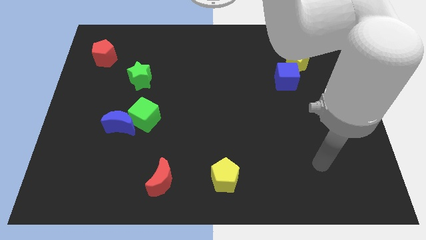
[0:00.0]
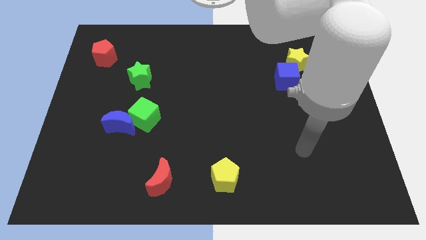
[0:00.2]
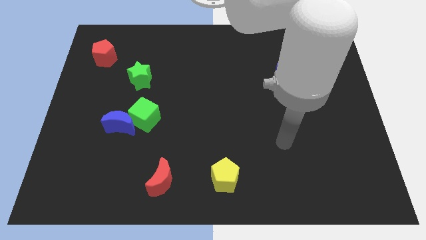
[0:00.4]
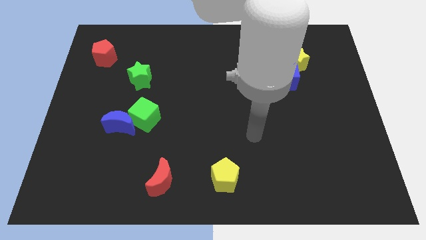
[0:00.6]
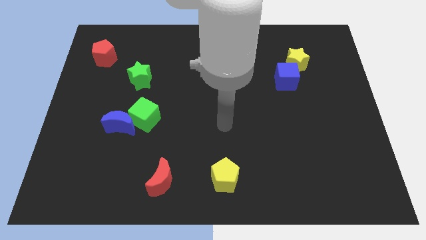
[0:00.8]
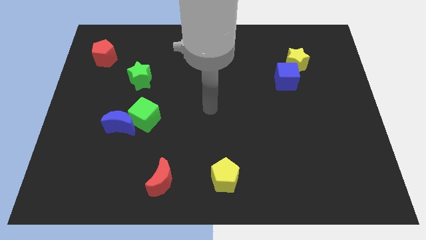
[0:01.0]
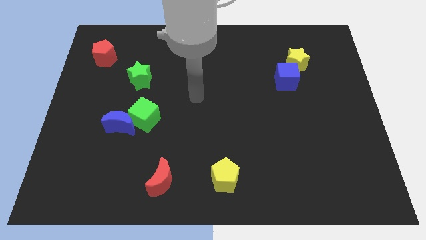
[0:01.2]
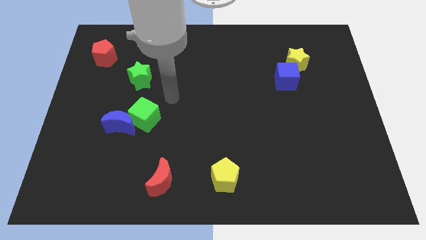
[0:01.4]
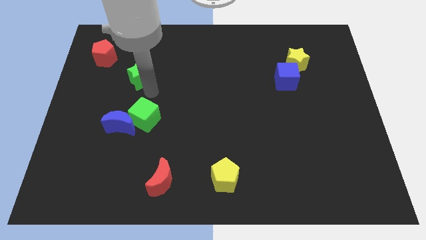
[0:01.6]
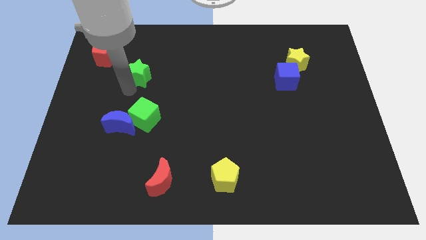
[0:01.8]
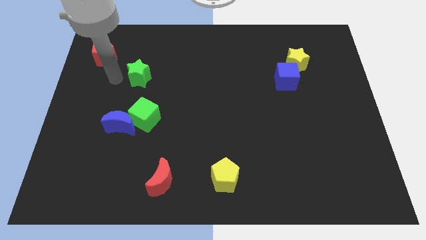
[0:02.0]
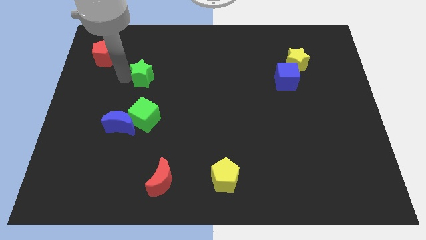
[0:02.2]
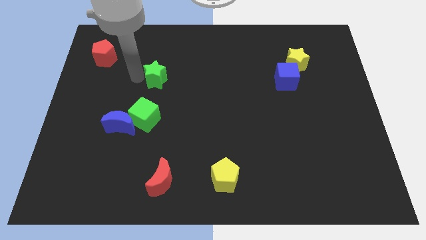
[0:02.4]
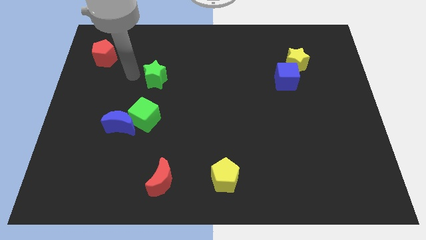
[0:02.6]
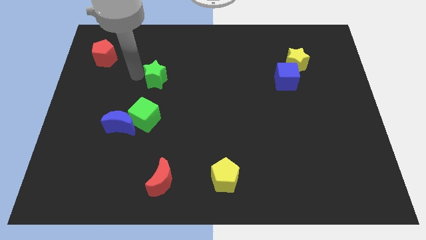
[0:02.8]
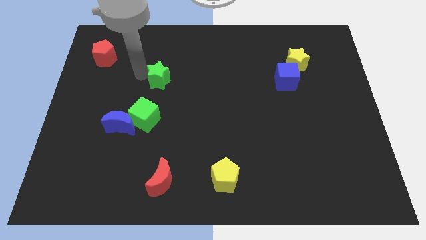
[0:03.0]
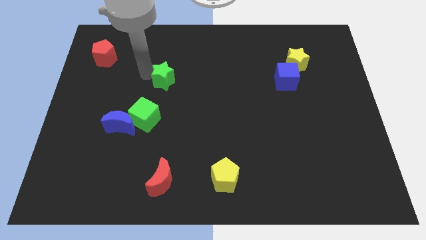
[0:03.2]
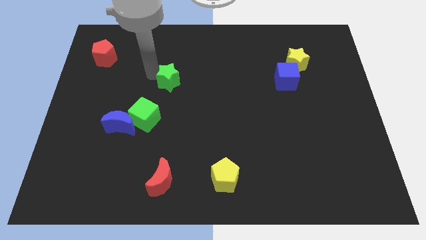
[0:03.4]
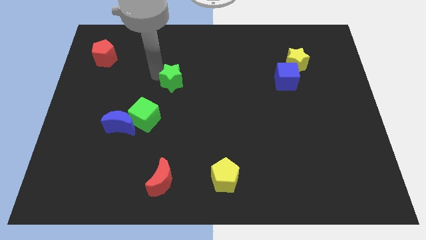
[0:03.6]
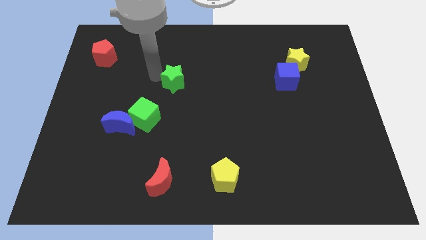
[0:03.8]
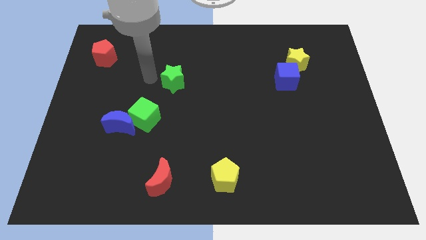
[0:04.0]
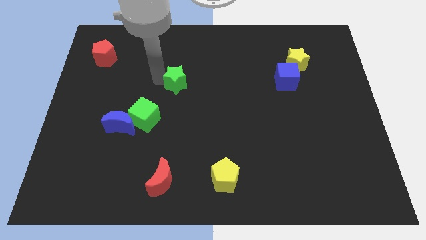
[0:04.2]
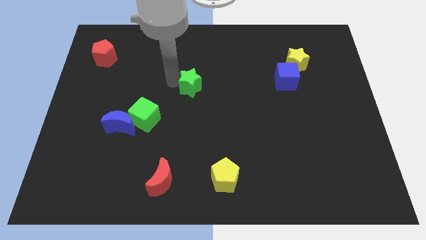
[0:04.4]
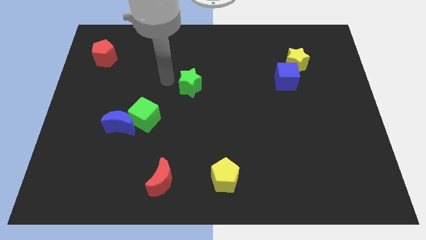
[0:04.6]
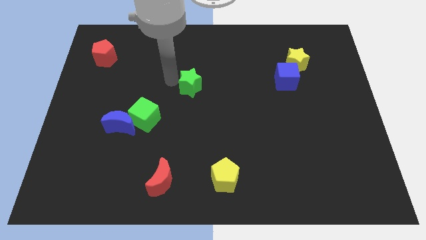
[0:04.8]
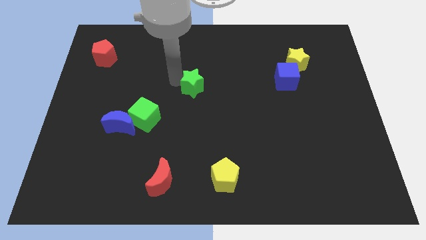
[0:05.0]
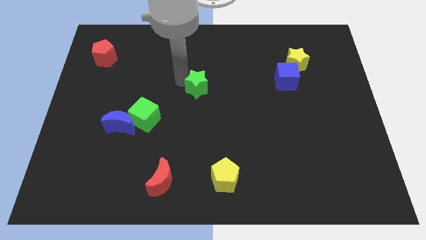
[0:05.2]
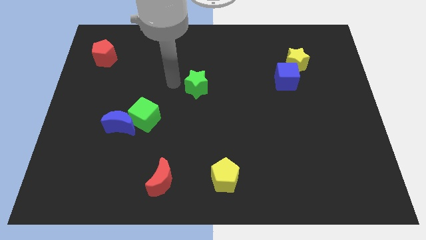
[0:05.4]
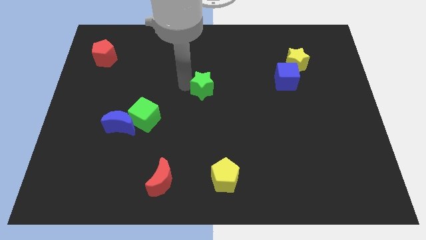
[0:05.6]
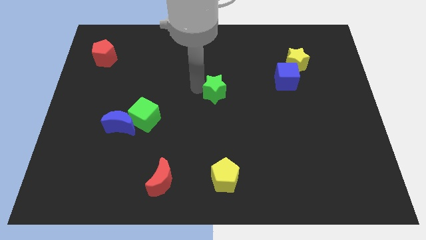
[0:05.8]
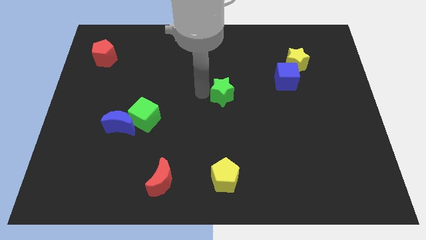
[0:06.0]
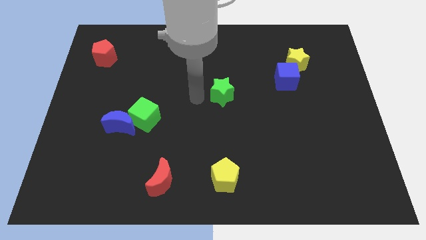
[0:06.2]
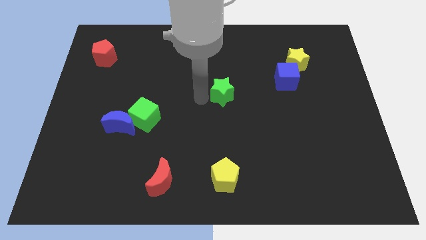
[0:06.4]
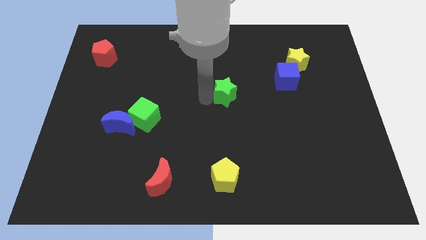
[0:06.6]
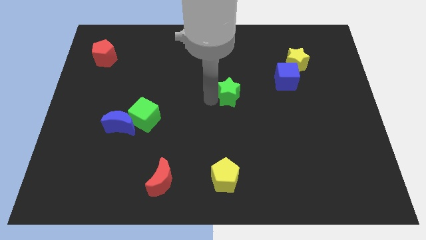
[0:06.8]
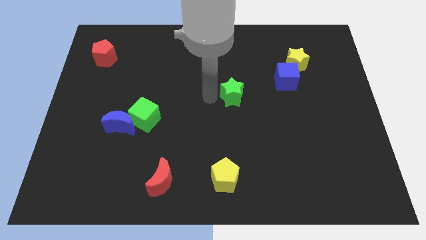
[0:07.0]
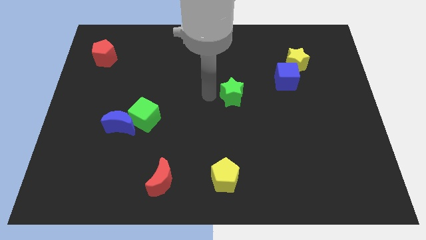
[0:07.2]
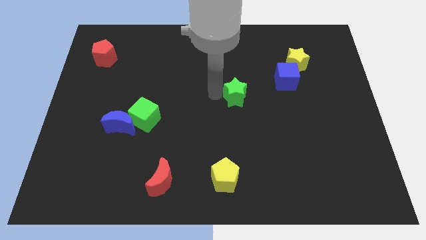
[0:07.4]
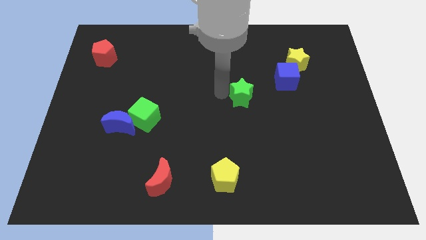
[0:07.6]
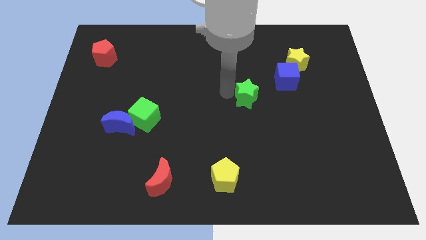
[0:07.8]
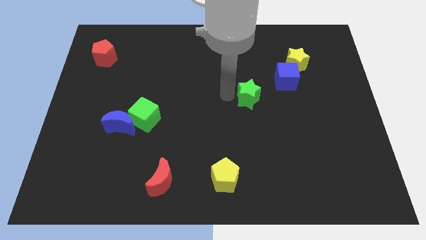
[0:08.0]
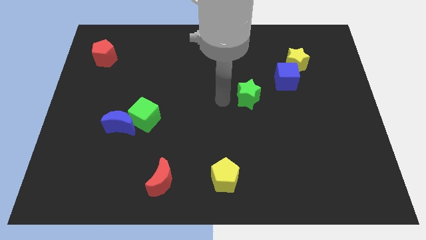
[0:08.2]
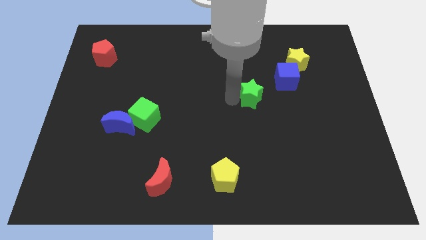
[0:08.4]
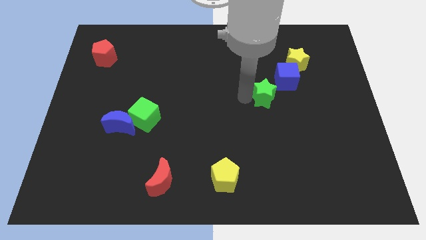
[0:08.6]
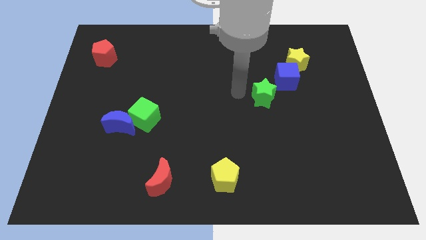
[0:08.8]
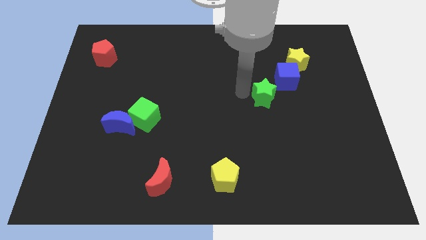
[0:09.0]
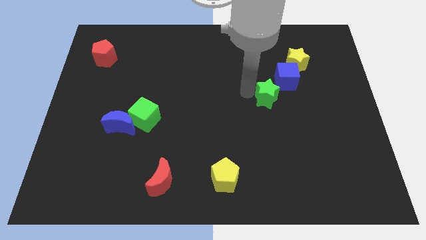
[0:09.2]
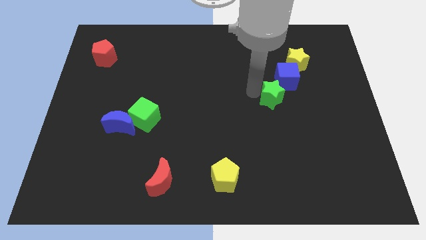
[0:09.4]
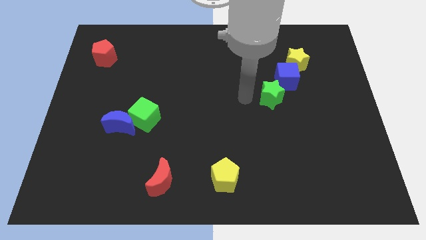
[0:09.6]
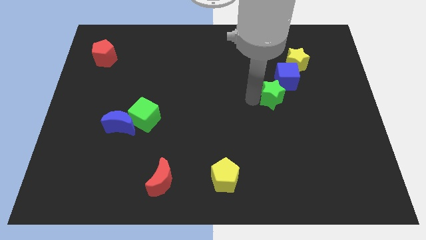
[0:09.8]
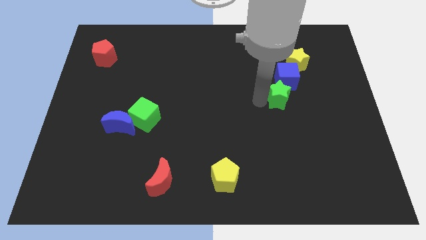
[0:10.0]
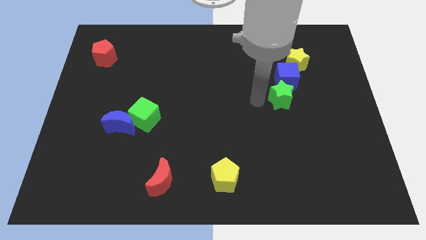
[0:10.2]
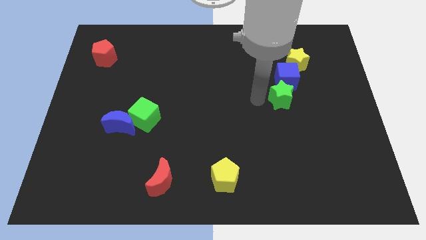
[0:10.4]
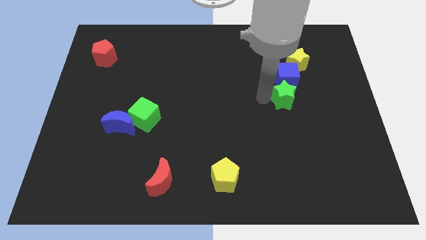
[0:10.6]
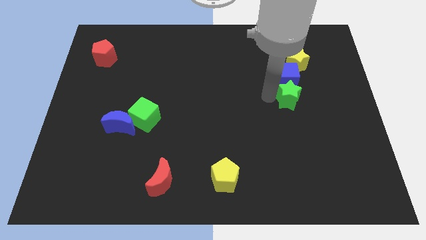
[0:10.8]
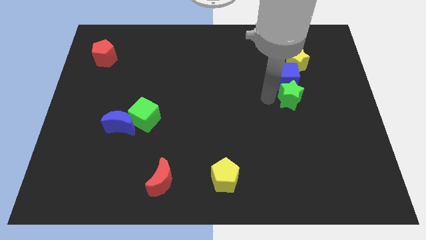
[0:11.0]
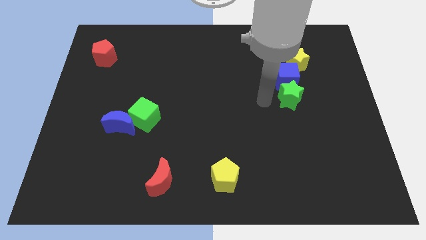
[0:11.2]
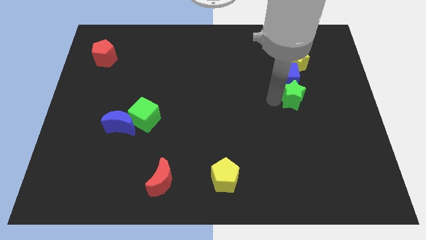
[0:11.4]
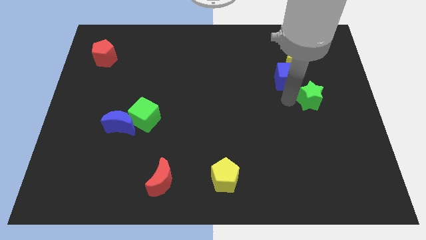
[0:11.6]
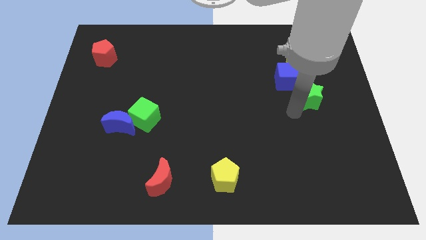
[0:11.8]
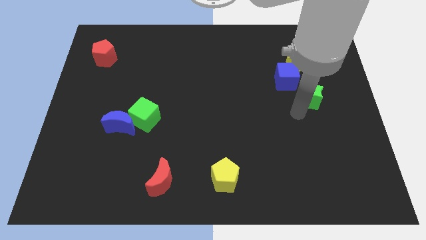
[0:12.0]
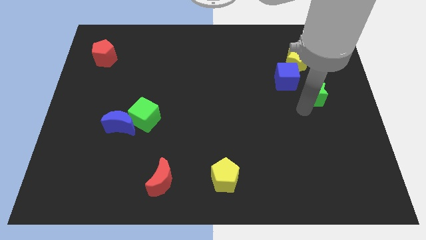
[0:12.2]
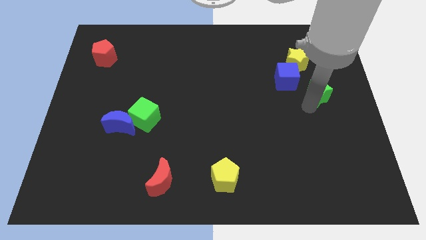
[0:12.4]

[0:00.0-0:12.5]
slide the green star right of the blue cube

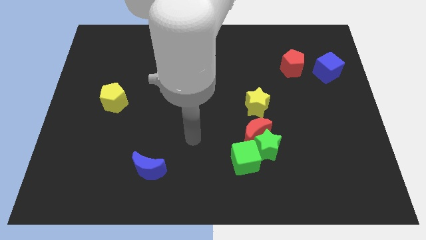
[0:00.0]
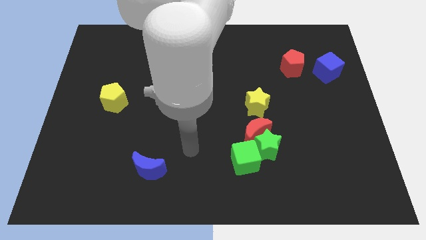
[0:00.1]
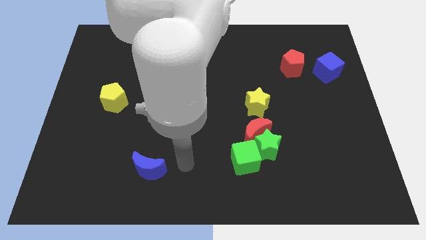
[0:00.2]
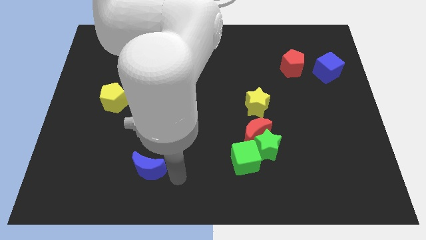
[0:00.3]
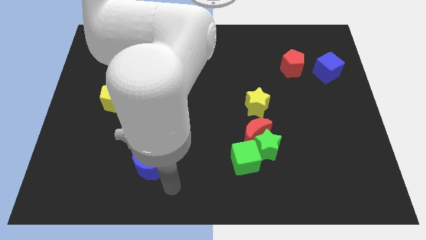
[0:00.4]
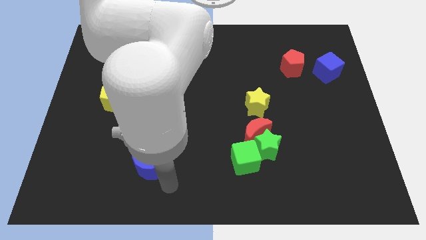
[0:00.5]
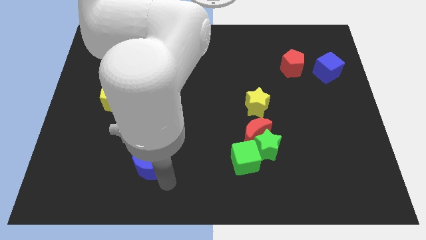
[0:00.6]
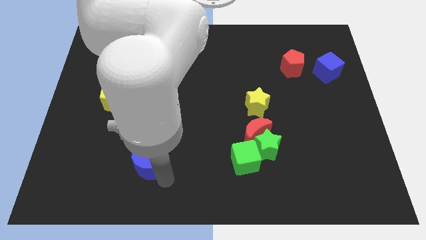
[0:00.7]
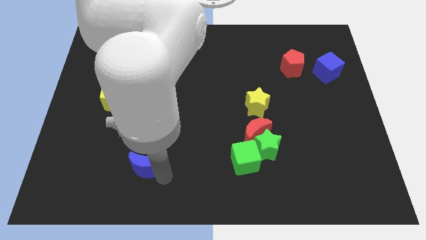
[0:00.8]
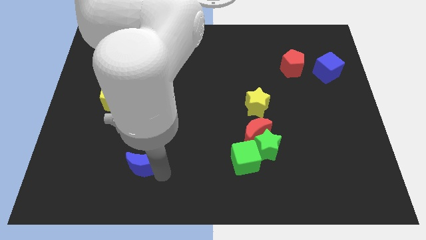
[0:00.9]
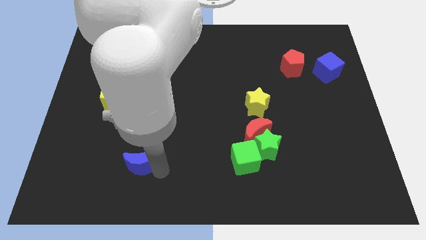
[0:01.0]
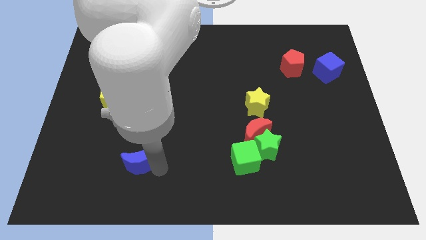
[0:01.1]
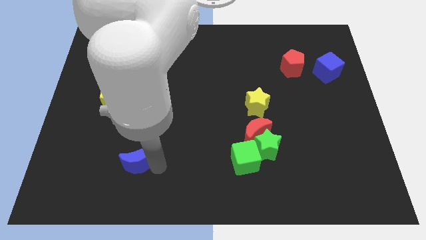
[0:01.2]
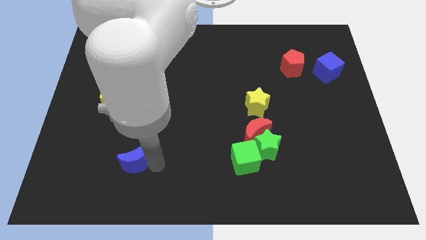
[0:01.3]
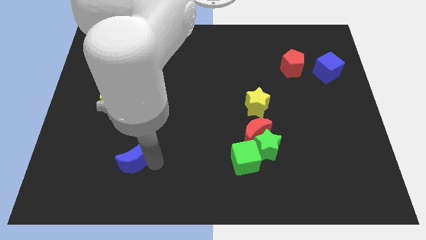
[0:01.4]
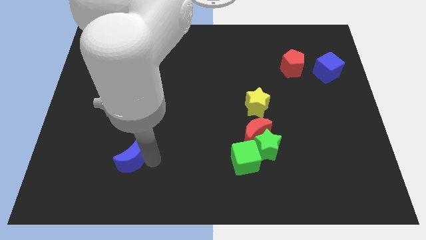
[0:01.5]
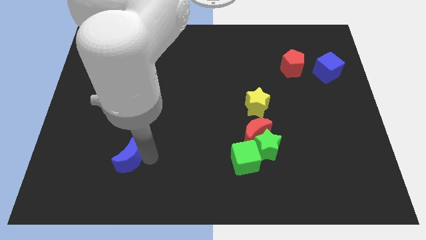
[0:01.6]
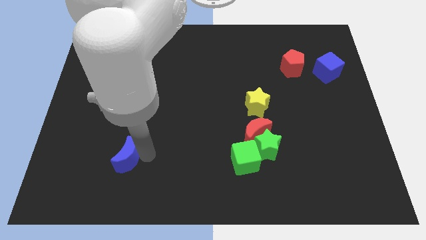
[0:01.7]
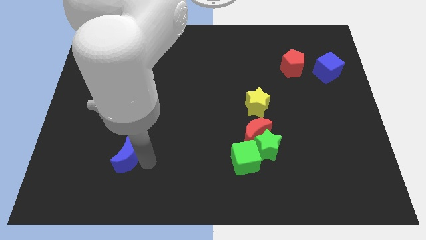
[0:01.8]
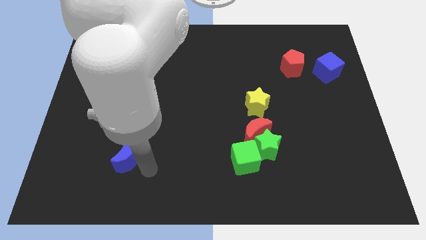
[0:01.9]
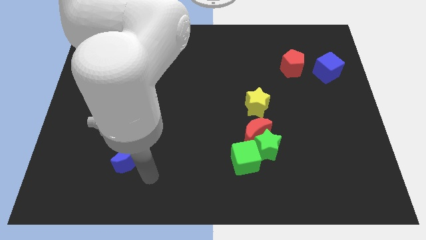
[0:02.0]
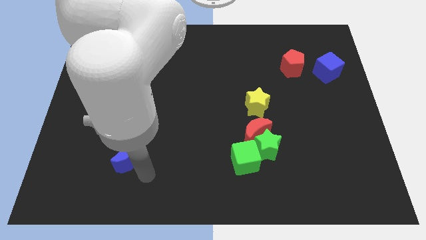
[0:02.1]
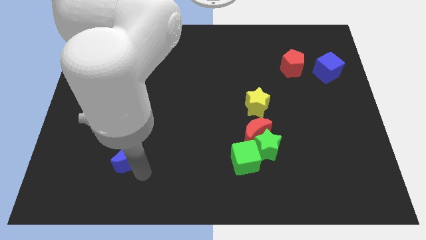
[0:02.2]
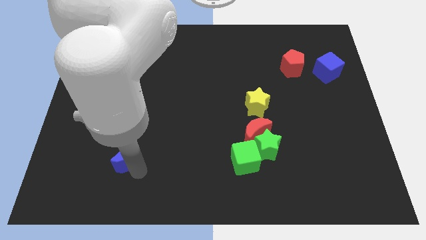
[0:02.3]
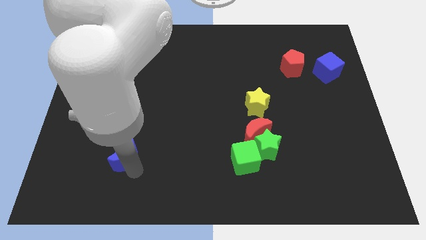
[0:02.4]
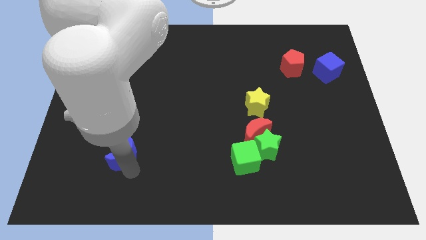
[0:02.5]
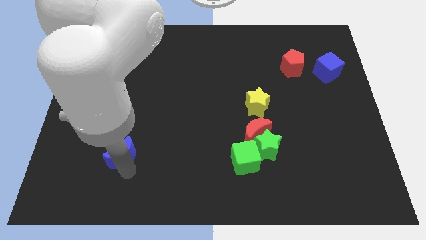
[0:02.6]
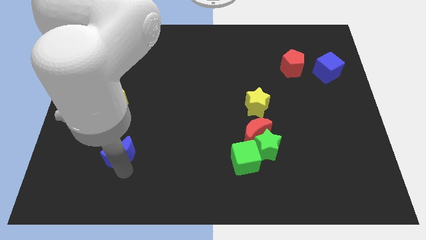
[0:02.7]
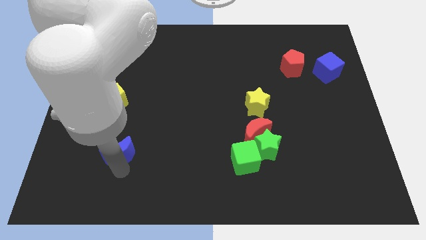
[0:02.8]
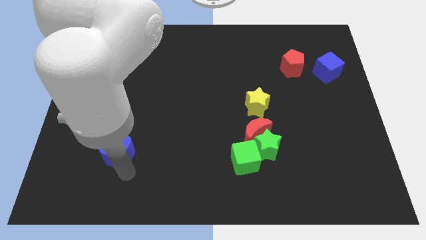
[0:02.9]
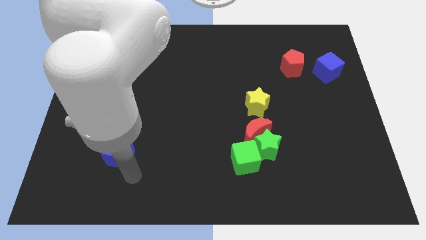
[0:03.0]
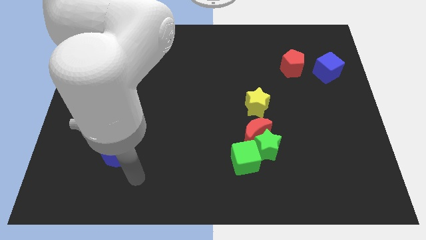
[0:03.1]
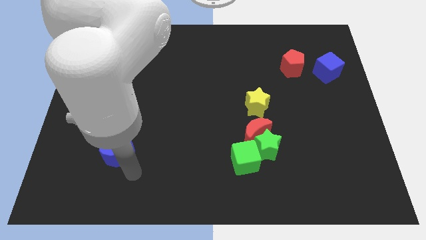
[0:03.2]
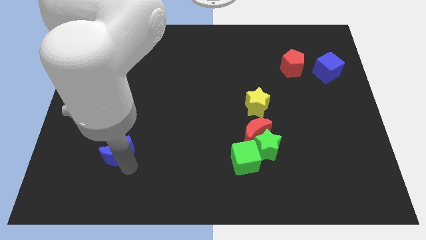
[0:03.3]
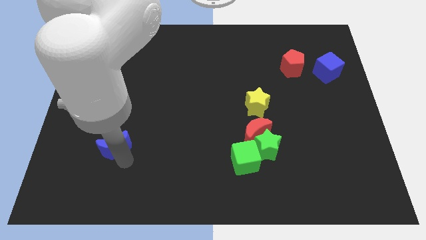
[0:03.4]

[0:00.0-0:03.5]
push the blue moon to the bottom side of the yellow pentagon
